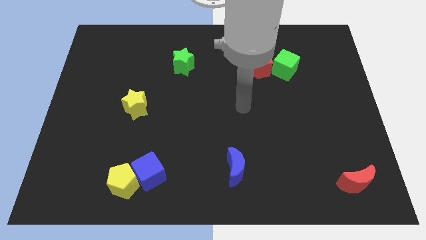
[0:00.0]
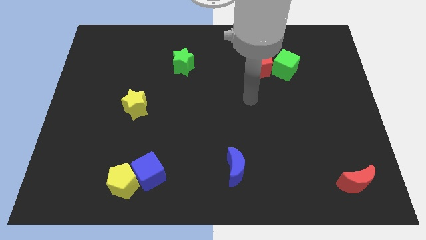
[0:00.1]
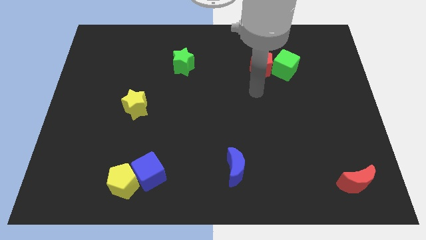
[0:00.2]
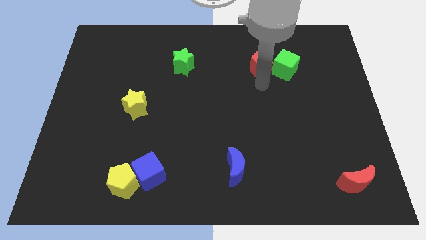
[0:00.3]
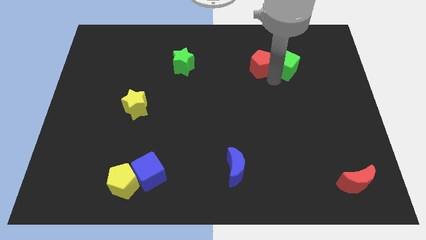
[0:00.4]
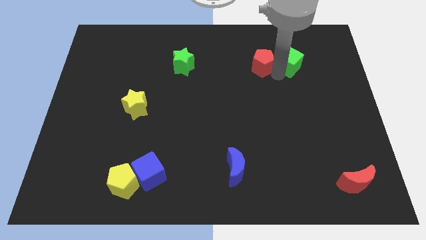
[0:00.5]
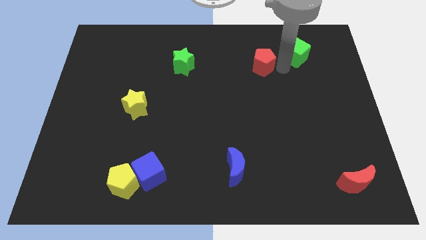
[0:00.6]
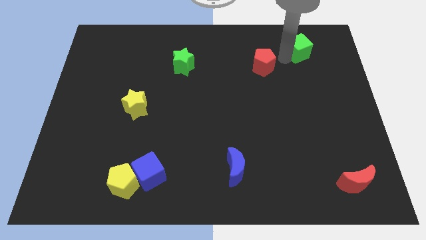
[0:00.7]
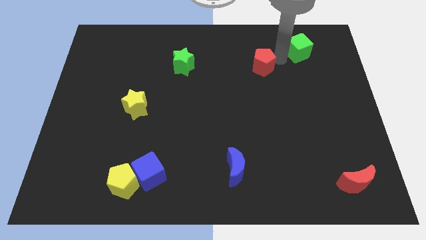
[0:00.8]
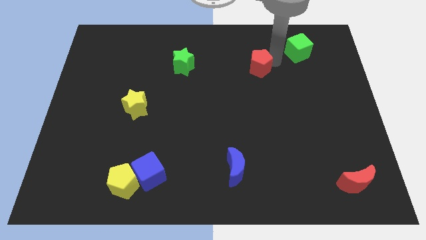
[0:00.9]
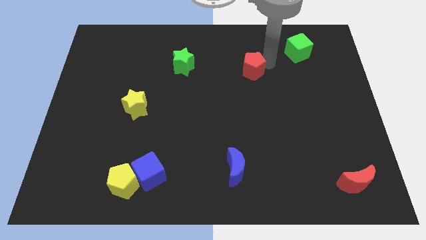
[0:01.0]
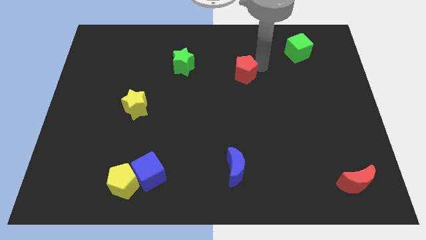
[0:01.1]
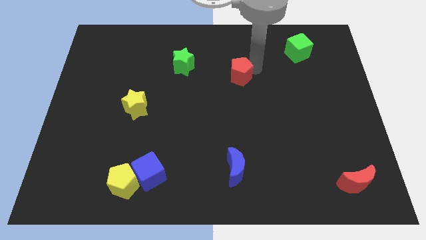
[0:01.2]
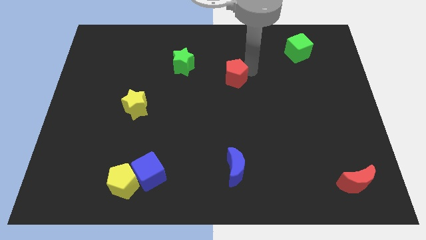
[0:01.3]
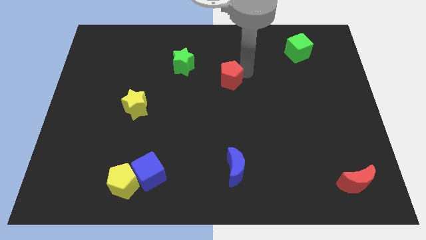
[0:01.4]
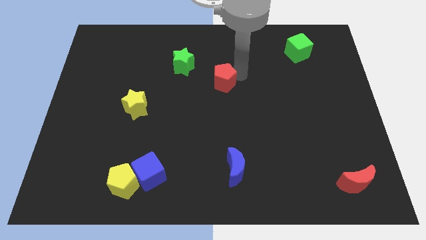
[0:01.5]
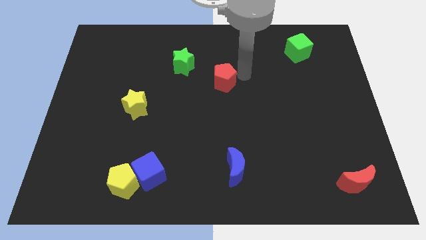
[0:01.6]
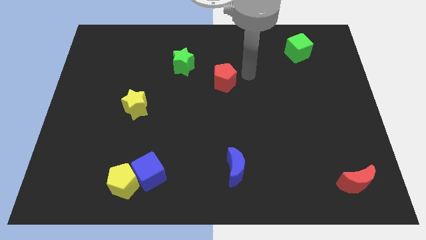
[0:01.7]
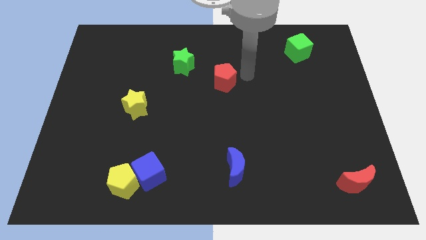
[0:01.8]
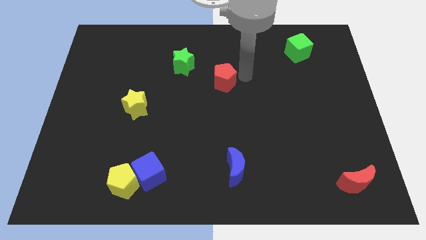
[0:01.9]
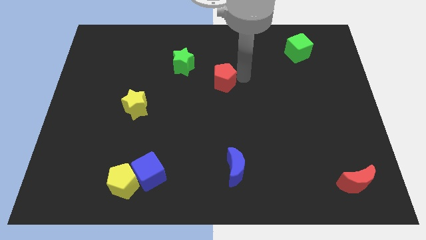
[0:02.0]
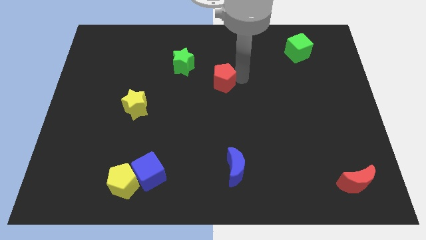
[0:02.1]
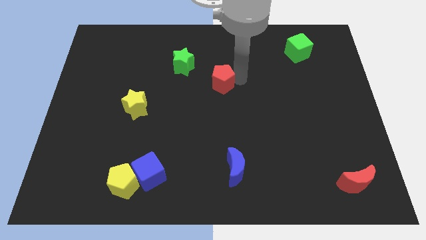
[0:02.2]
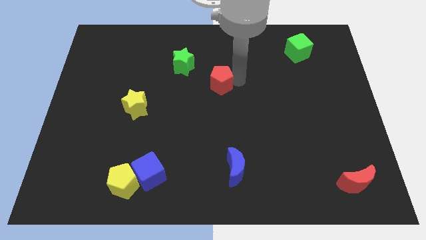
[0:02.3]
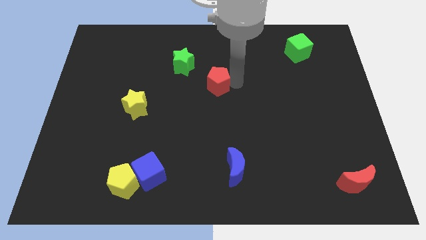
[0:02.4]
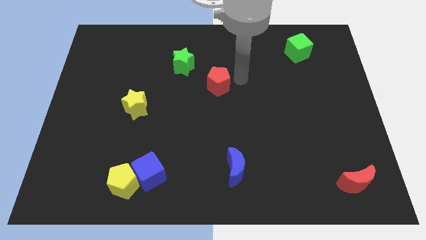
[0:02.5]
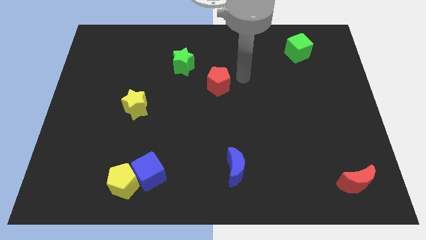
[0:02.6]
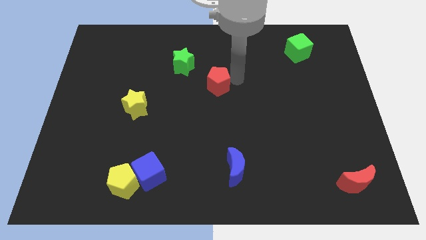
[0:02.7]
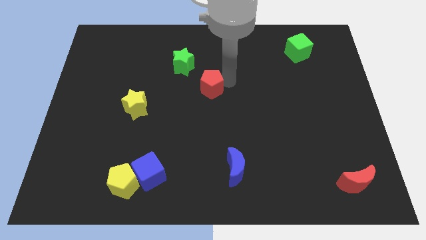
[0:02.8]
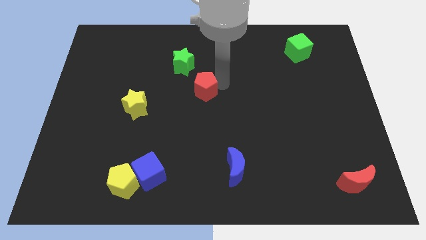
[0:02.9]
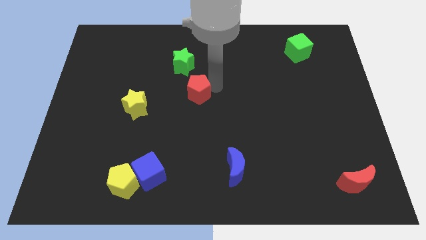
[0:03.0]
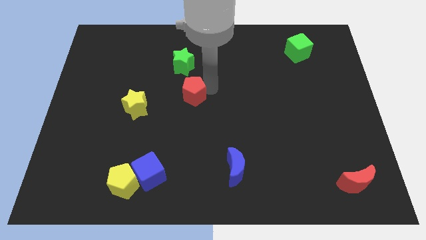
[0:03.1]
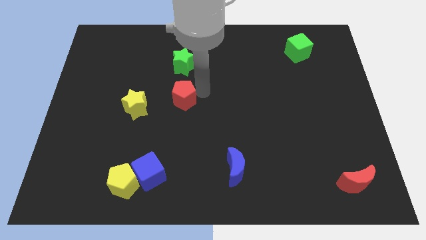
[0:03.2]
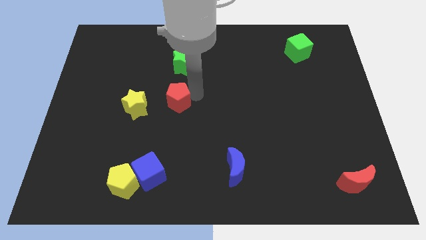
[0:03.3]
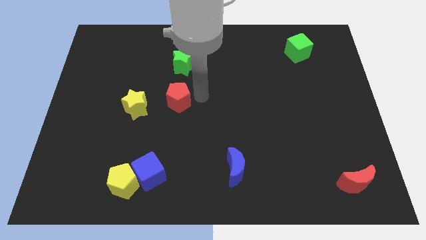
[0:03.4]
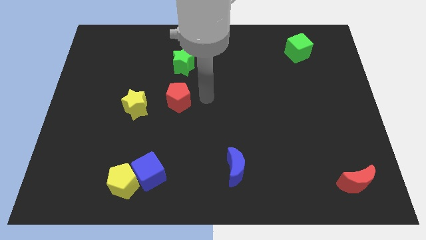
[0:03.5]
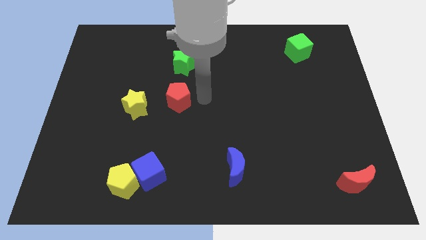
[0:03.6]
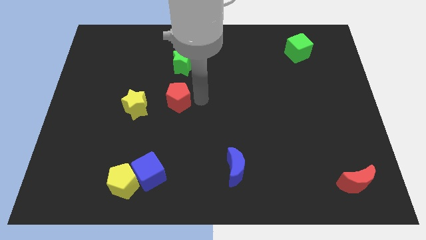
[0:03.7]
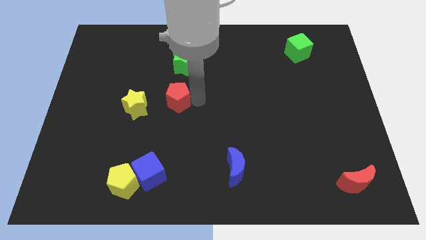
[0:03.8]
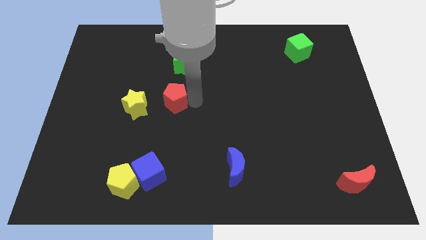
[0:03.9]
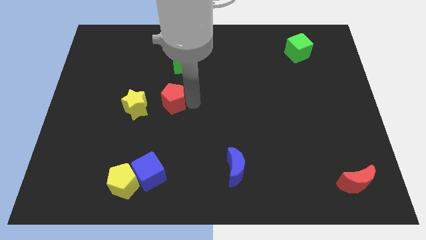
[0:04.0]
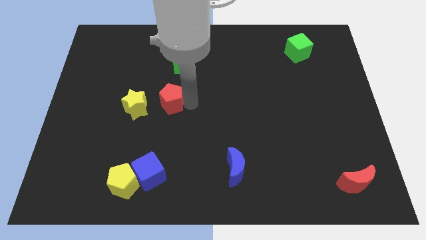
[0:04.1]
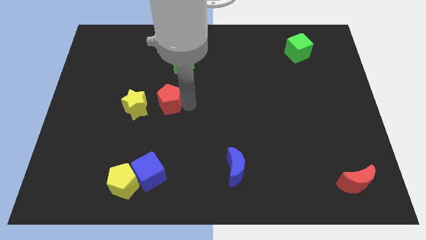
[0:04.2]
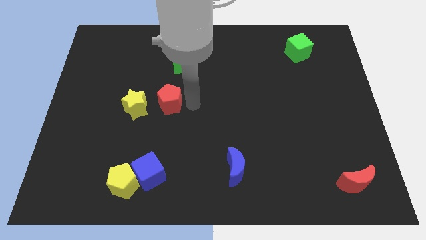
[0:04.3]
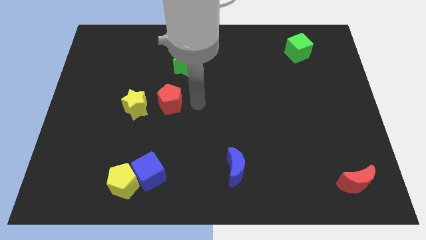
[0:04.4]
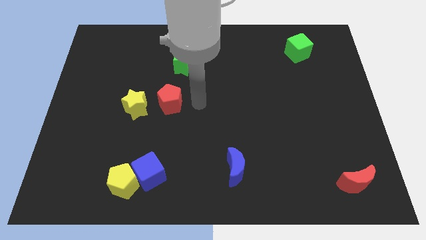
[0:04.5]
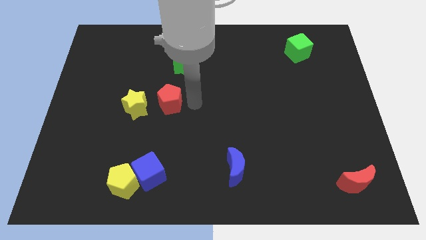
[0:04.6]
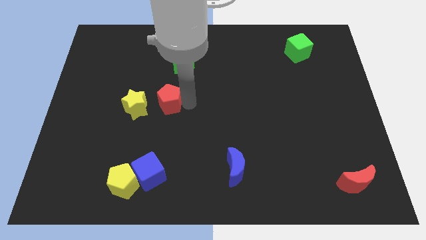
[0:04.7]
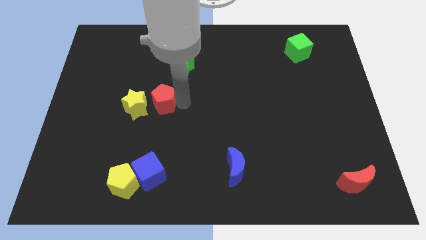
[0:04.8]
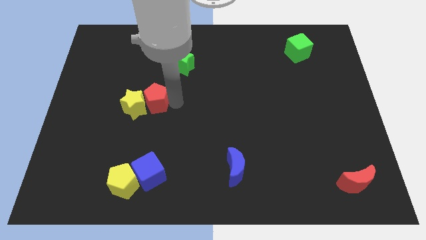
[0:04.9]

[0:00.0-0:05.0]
push the red pentagon towards the yellow star

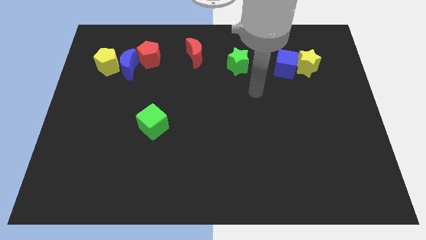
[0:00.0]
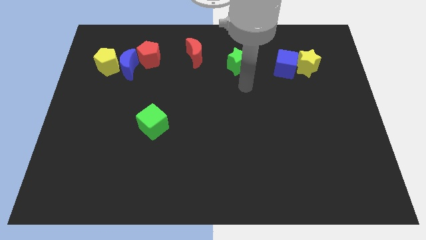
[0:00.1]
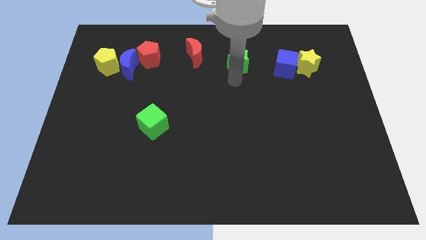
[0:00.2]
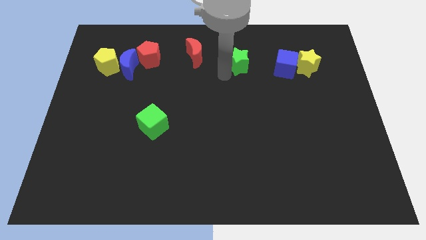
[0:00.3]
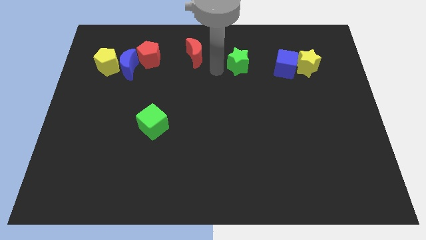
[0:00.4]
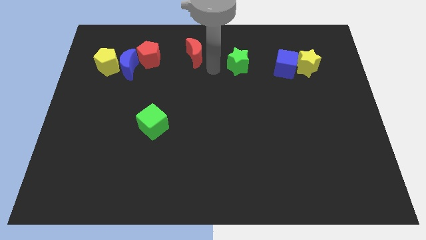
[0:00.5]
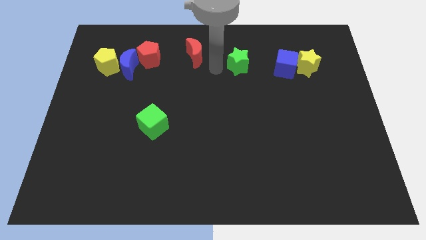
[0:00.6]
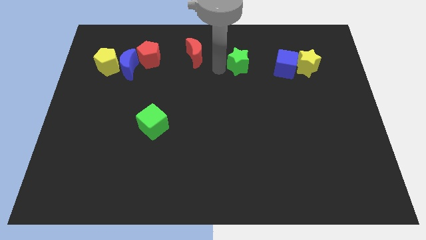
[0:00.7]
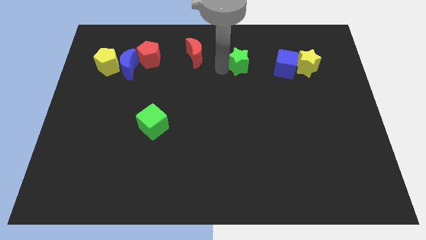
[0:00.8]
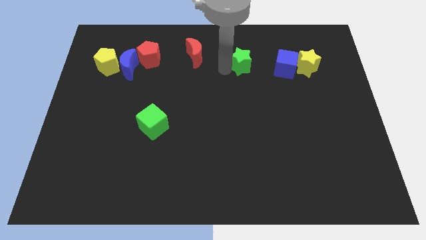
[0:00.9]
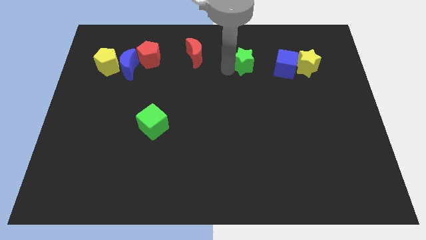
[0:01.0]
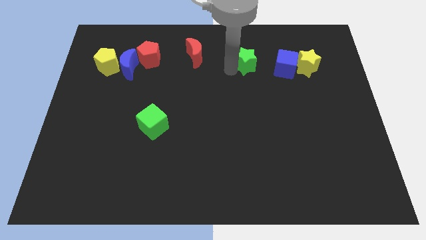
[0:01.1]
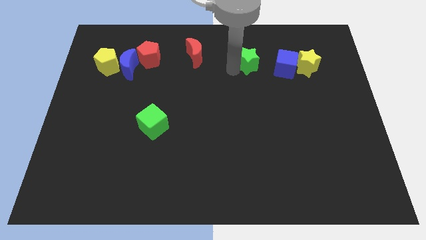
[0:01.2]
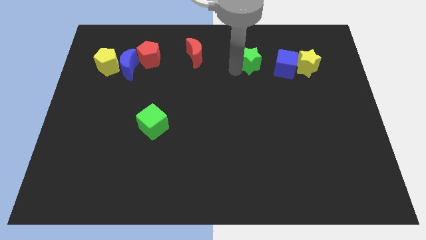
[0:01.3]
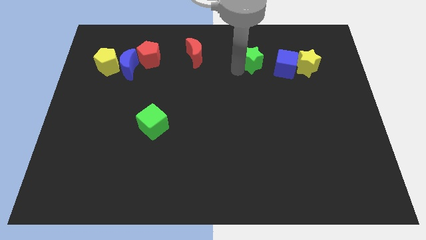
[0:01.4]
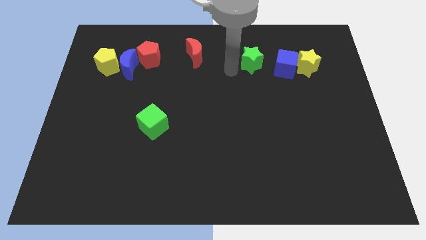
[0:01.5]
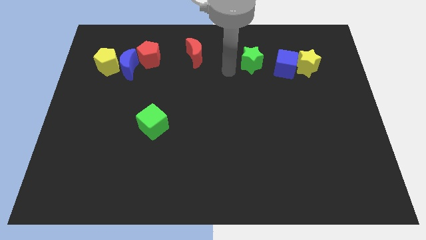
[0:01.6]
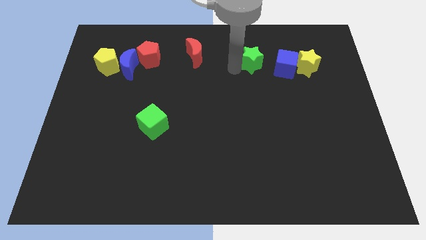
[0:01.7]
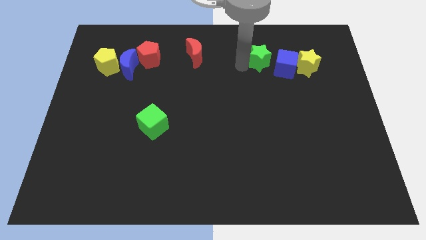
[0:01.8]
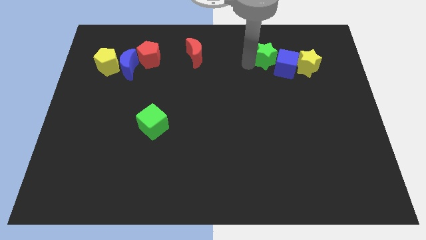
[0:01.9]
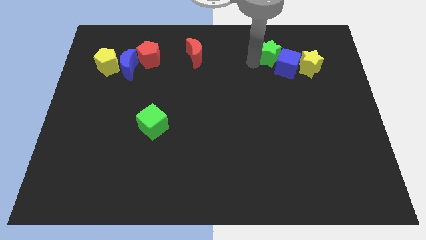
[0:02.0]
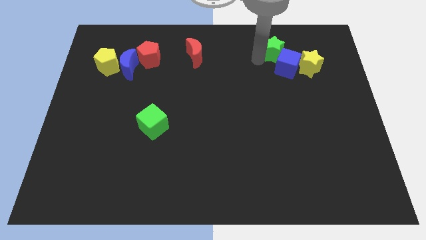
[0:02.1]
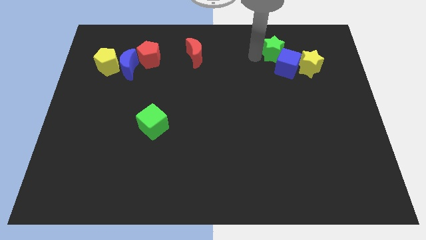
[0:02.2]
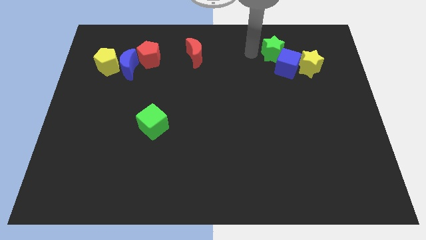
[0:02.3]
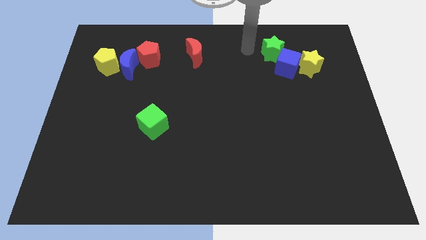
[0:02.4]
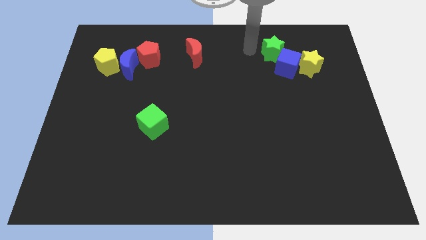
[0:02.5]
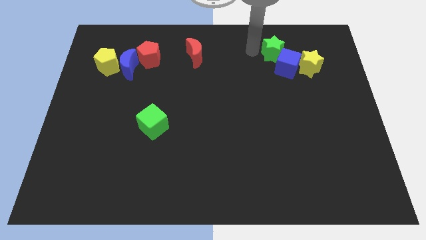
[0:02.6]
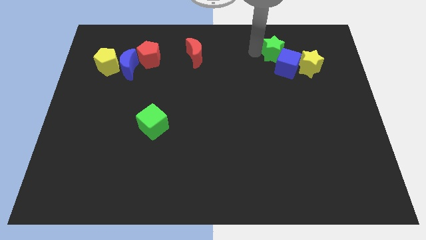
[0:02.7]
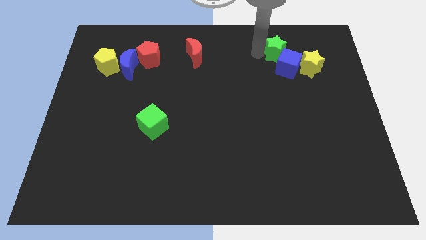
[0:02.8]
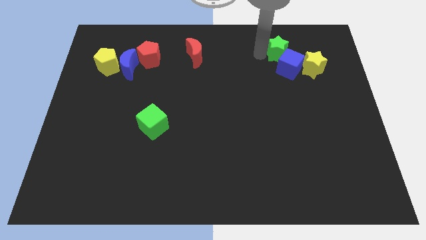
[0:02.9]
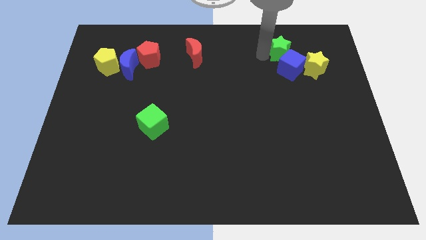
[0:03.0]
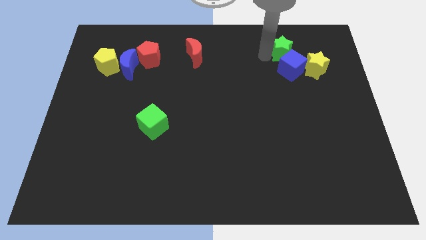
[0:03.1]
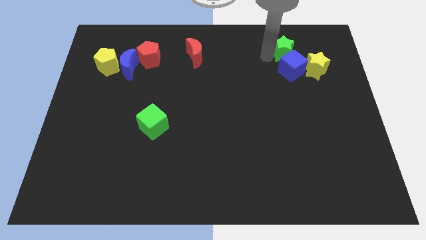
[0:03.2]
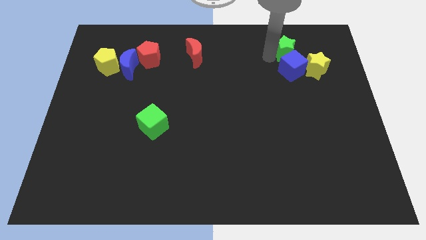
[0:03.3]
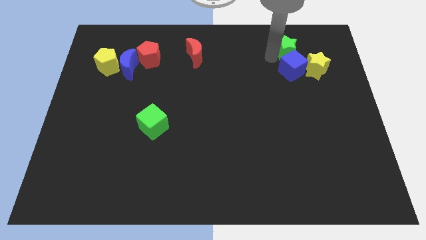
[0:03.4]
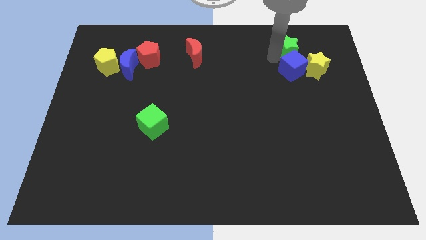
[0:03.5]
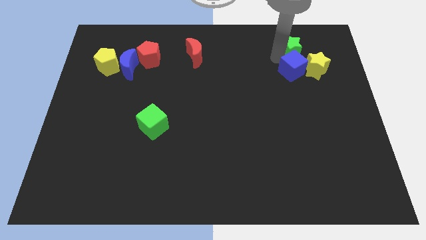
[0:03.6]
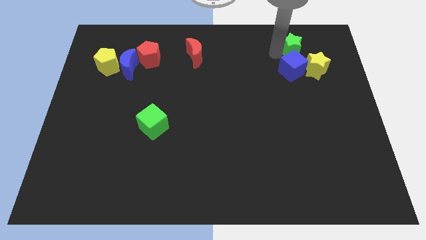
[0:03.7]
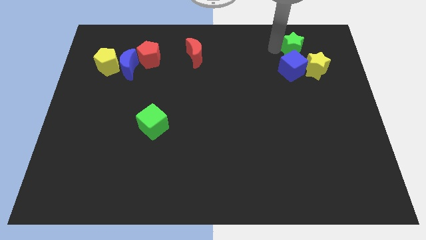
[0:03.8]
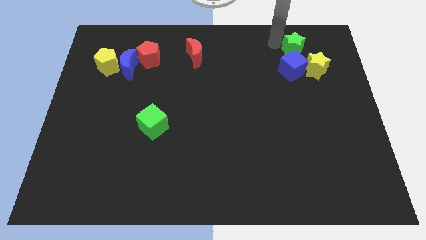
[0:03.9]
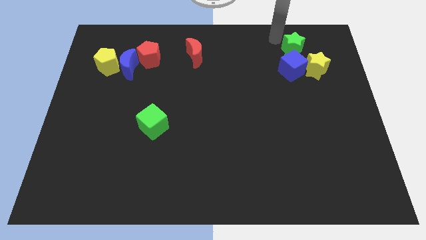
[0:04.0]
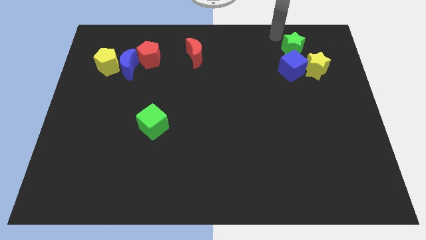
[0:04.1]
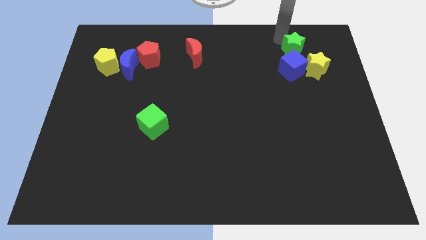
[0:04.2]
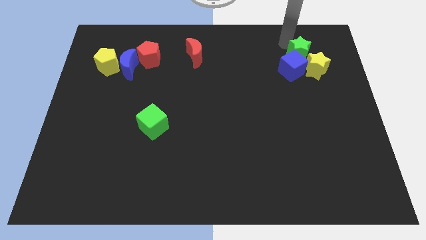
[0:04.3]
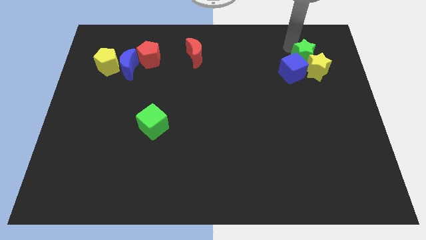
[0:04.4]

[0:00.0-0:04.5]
put the green star next to the yellow star
